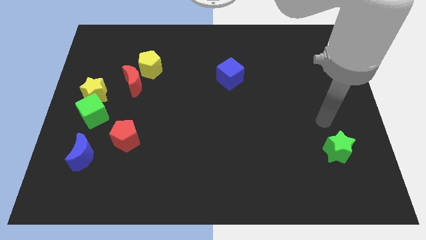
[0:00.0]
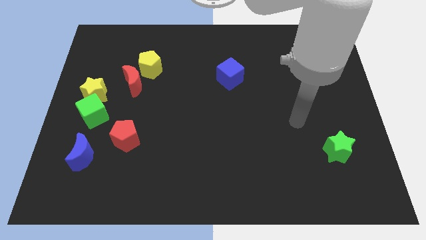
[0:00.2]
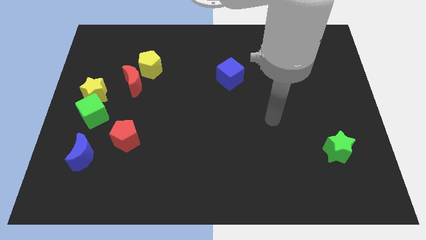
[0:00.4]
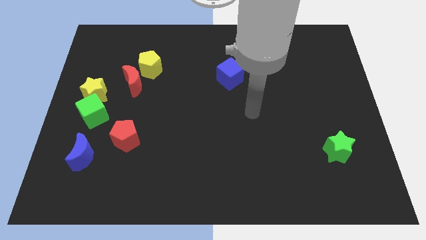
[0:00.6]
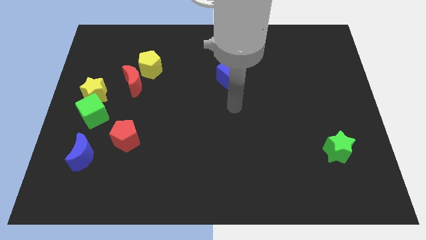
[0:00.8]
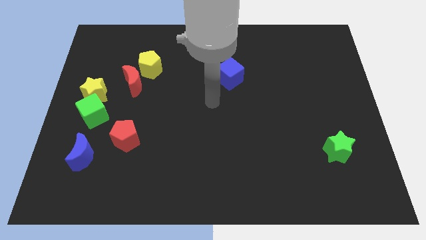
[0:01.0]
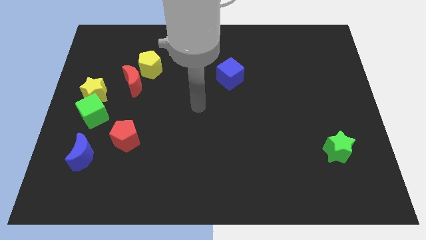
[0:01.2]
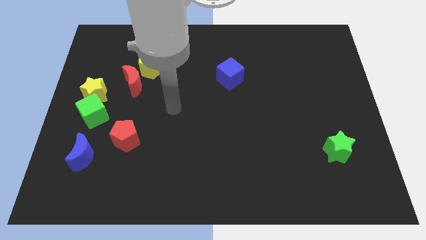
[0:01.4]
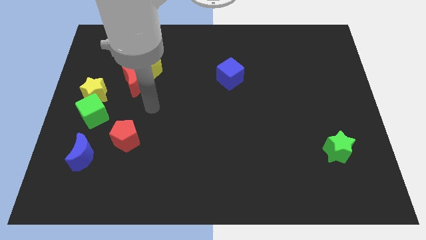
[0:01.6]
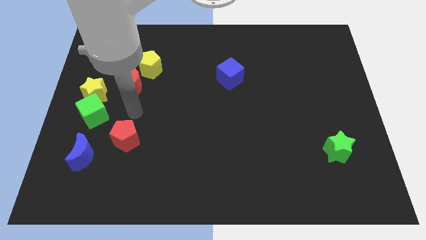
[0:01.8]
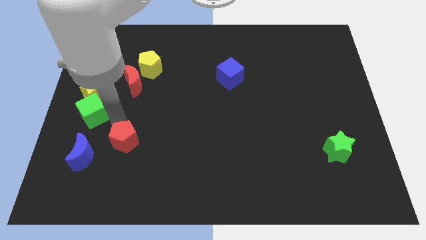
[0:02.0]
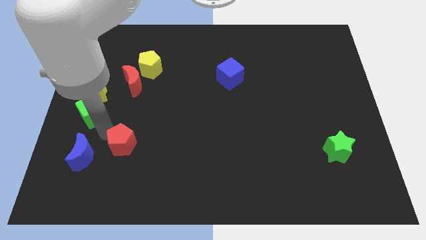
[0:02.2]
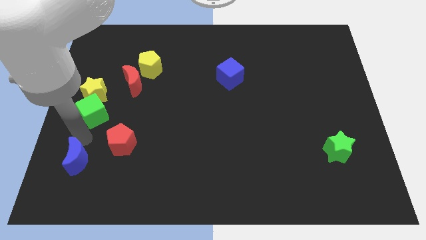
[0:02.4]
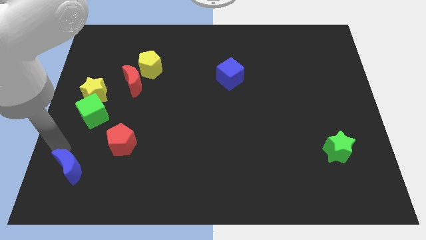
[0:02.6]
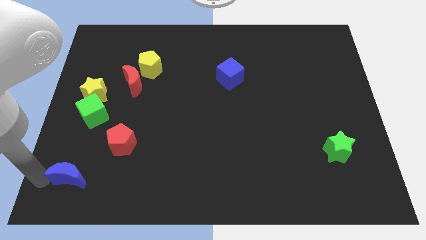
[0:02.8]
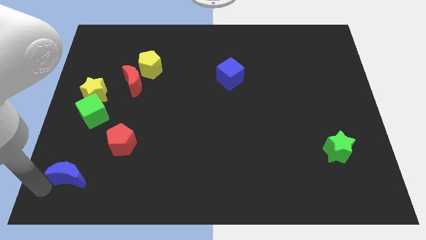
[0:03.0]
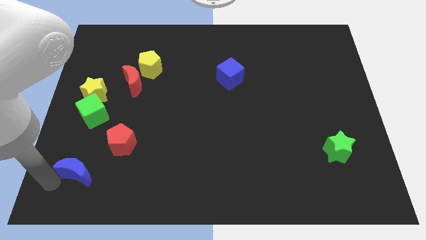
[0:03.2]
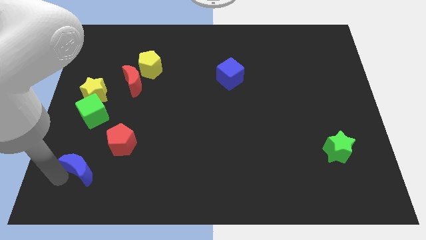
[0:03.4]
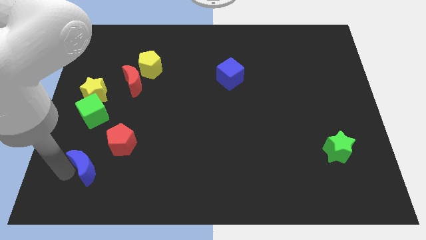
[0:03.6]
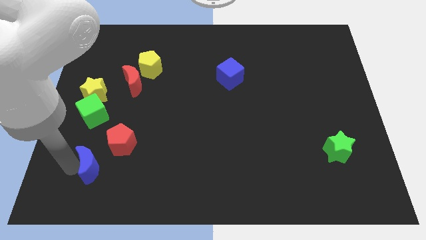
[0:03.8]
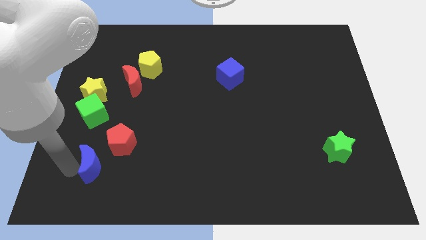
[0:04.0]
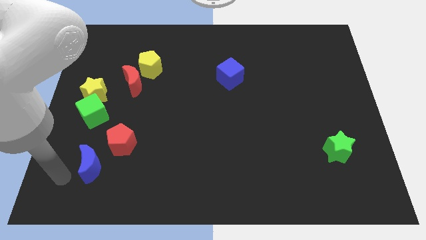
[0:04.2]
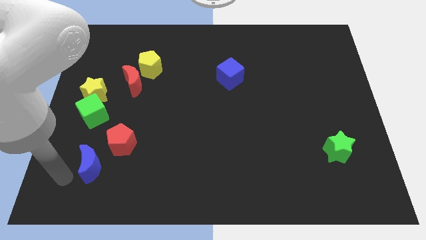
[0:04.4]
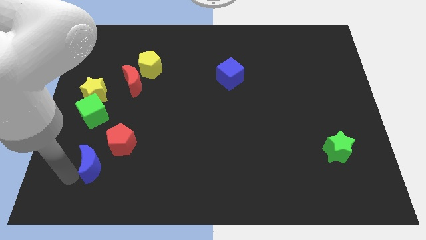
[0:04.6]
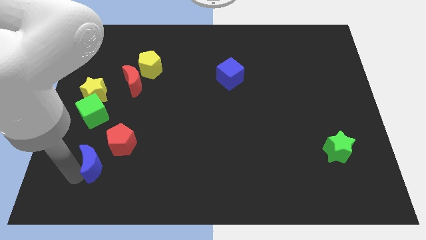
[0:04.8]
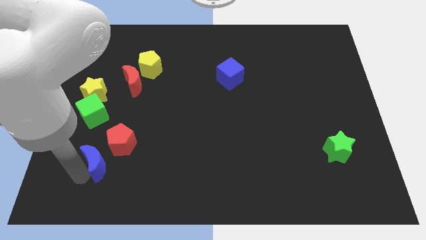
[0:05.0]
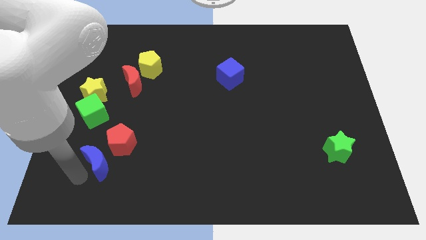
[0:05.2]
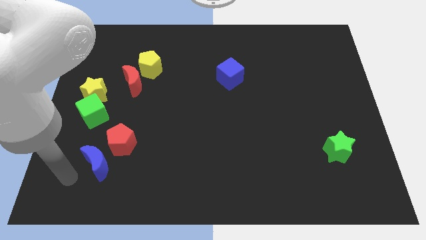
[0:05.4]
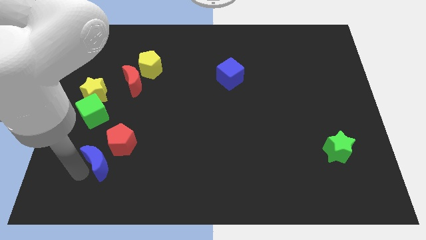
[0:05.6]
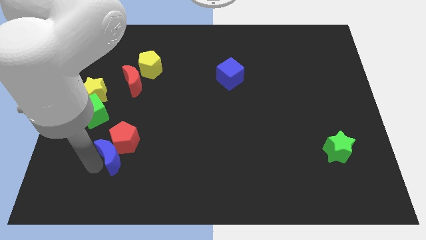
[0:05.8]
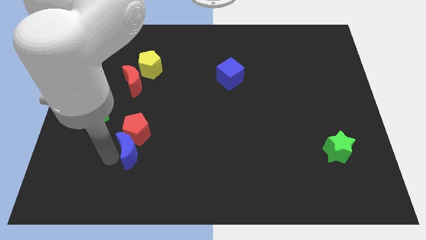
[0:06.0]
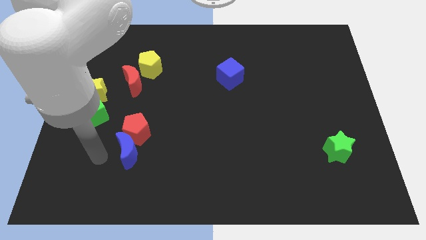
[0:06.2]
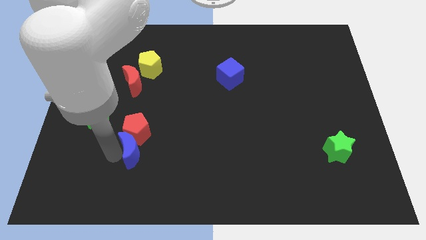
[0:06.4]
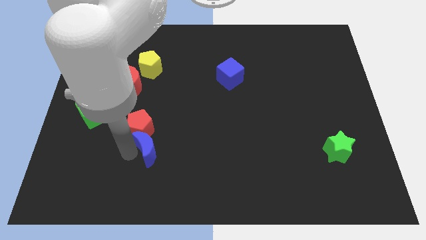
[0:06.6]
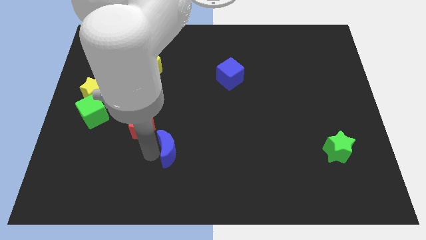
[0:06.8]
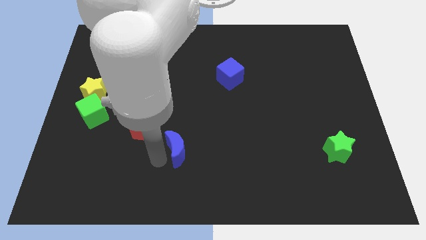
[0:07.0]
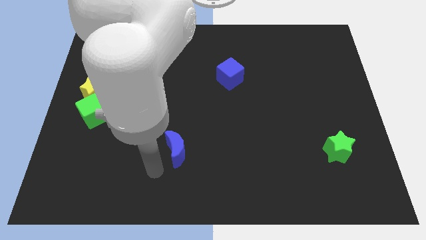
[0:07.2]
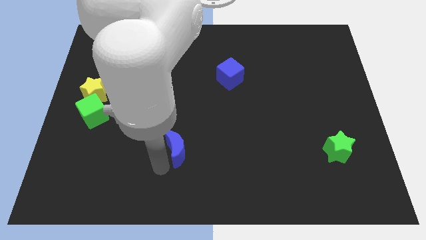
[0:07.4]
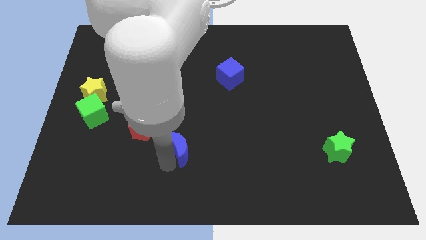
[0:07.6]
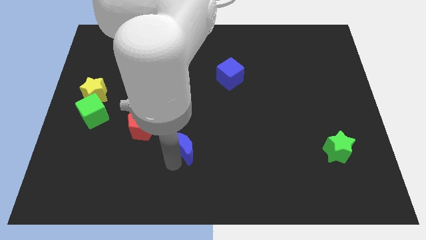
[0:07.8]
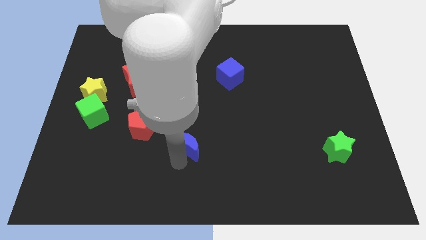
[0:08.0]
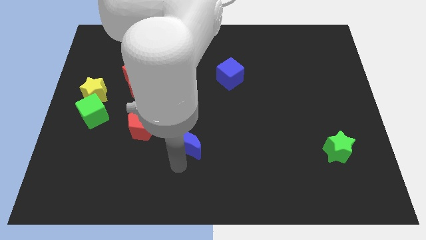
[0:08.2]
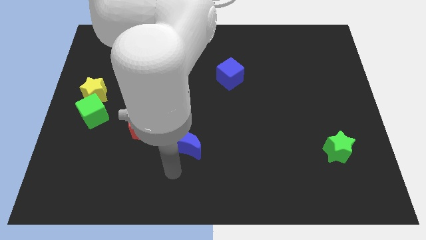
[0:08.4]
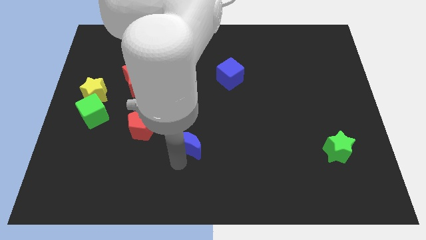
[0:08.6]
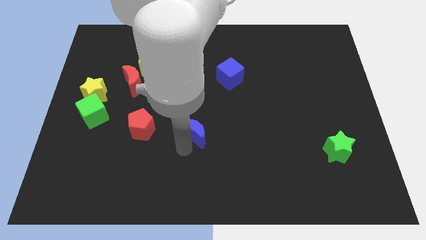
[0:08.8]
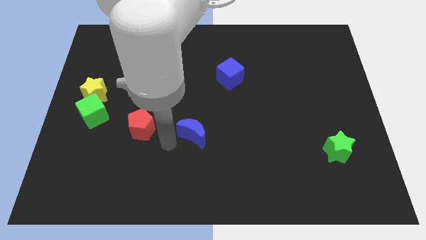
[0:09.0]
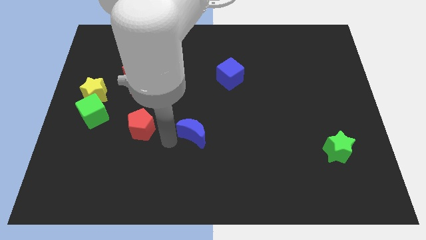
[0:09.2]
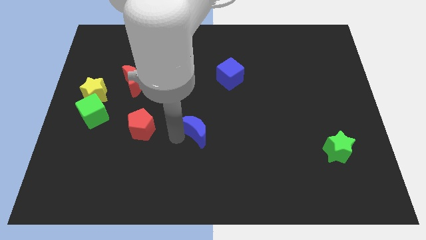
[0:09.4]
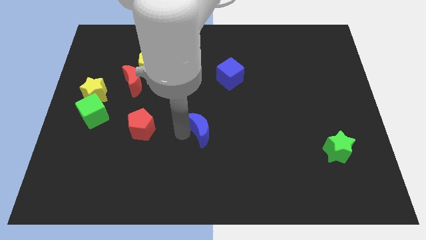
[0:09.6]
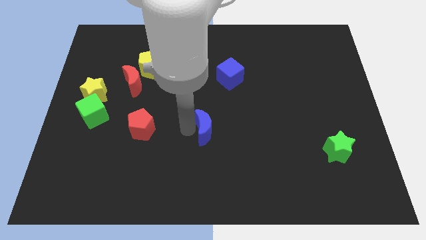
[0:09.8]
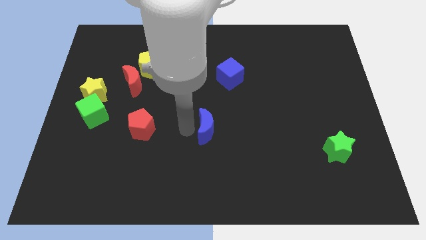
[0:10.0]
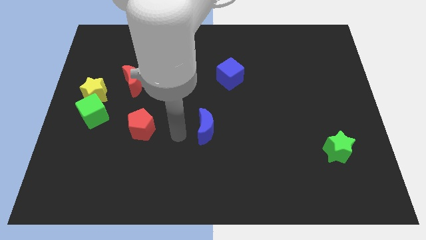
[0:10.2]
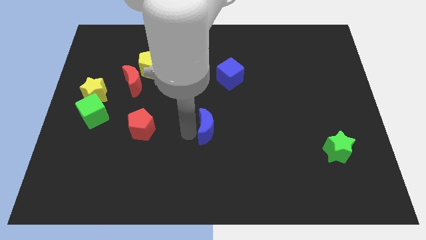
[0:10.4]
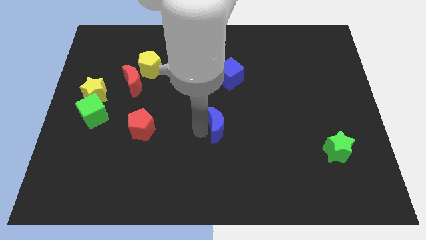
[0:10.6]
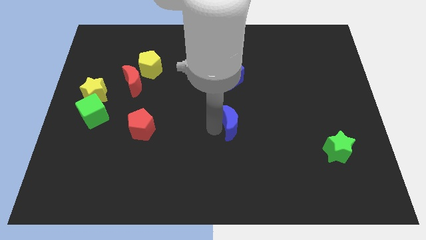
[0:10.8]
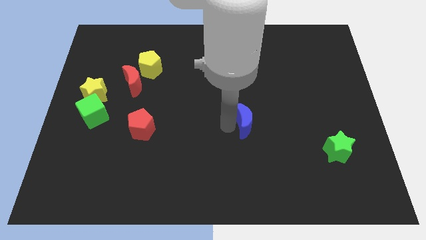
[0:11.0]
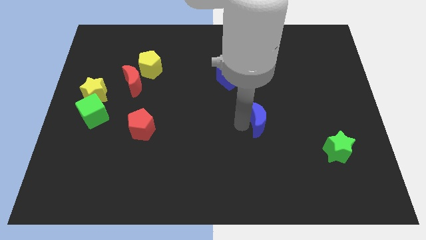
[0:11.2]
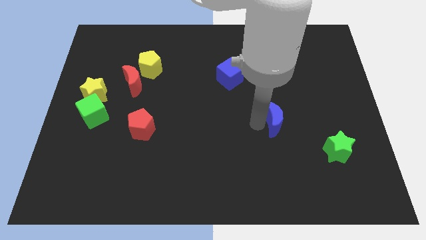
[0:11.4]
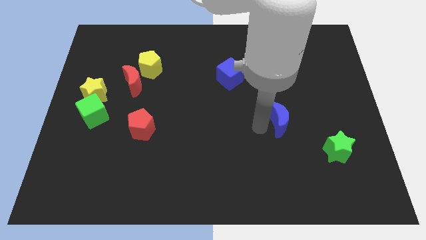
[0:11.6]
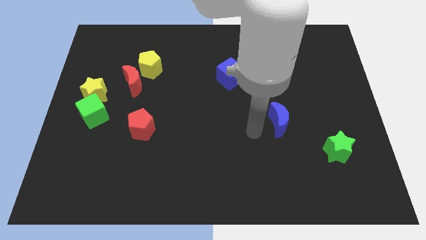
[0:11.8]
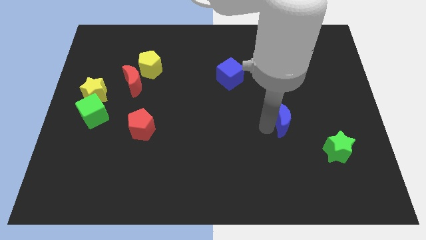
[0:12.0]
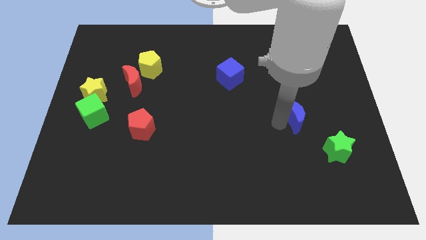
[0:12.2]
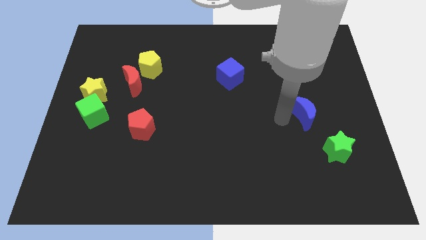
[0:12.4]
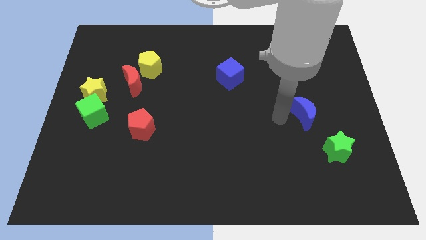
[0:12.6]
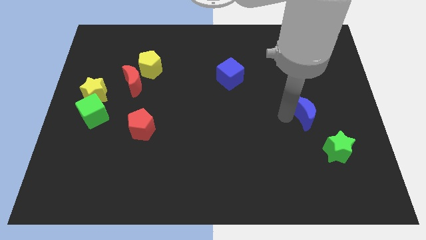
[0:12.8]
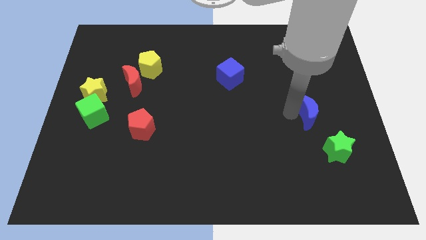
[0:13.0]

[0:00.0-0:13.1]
move the blue moon to the top side of the green star
